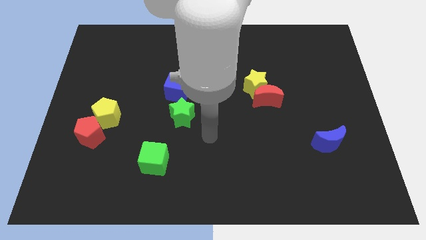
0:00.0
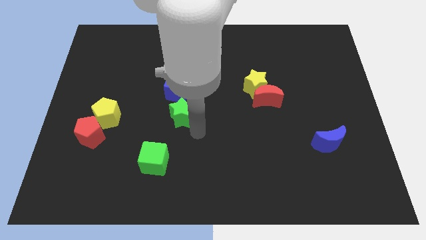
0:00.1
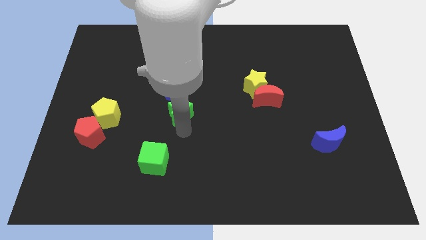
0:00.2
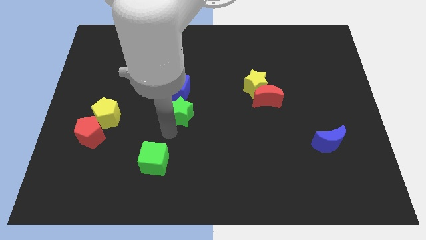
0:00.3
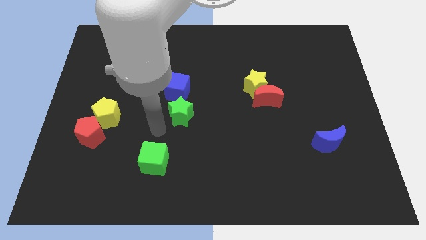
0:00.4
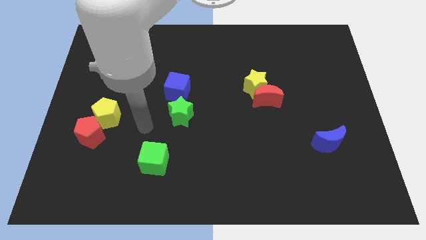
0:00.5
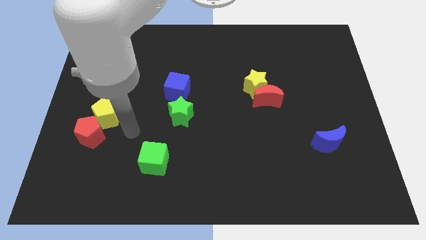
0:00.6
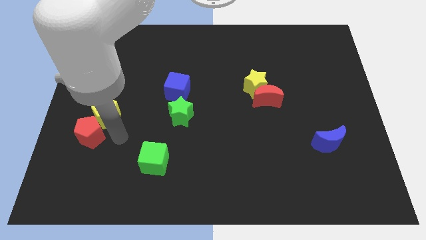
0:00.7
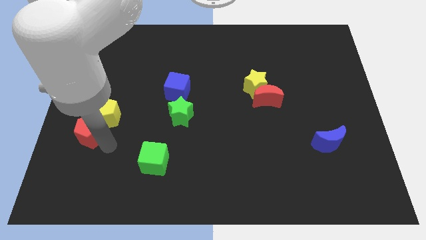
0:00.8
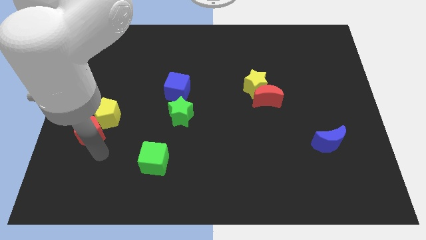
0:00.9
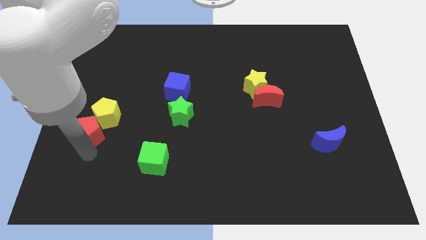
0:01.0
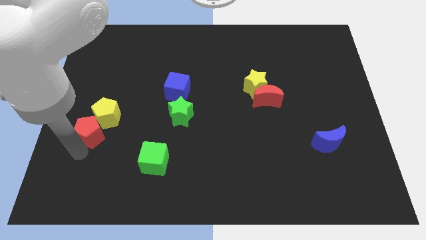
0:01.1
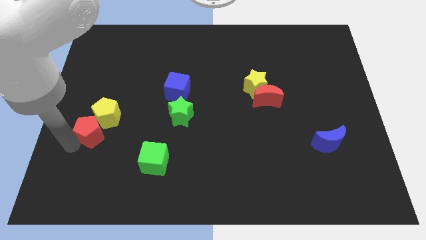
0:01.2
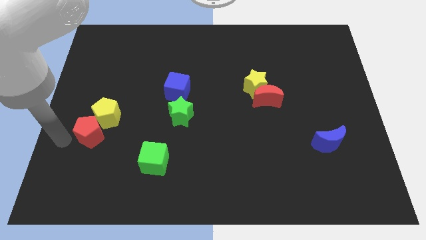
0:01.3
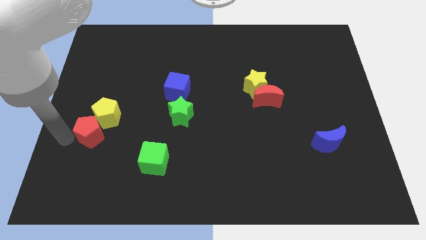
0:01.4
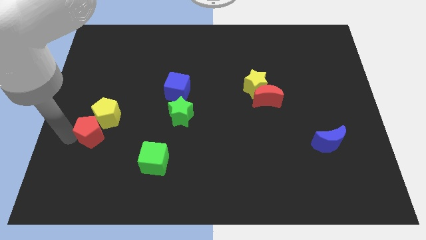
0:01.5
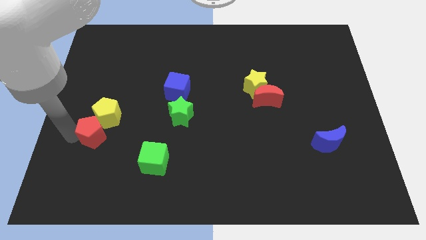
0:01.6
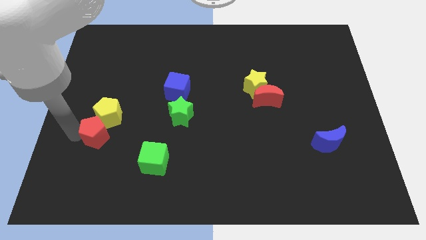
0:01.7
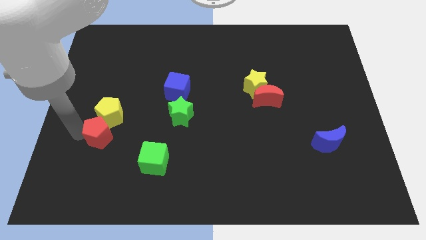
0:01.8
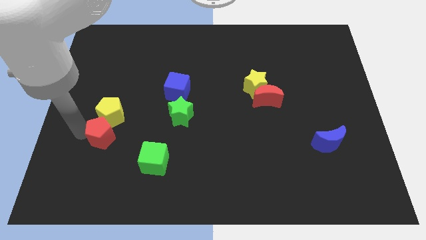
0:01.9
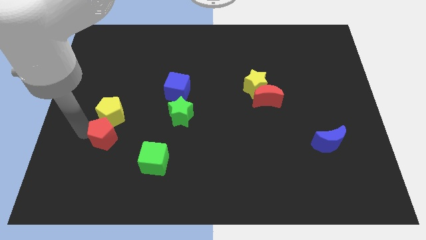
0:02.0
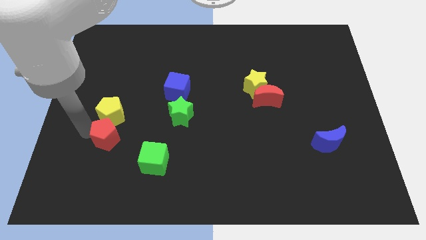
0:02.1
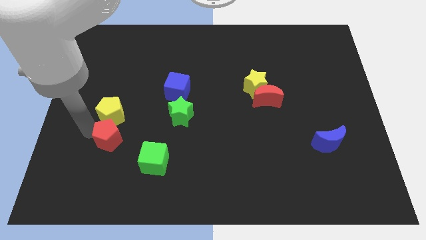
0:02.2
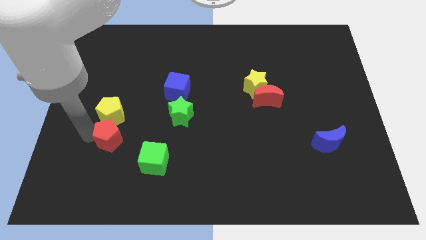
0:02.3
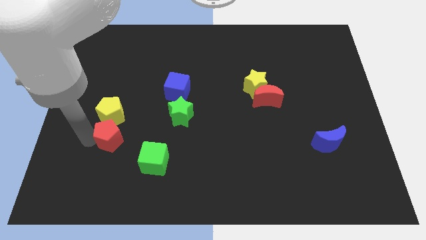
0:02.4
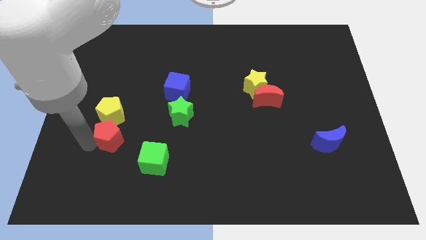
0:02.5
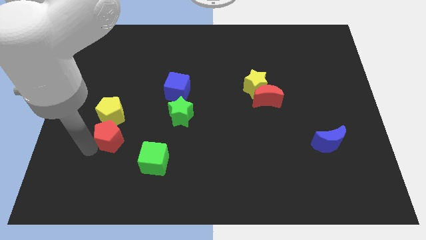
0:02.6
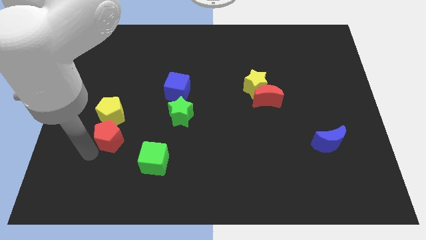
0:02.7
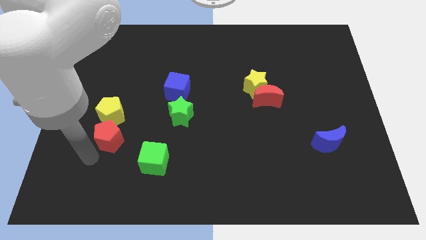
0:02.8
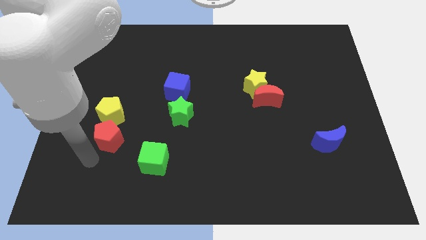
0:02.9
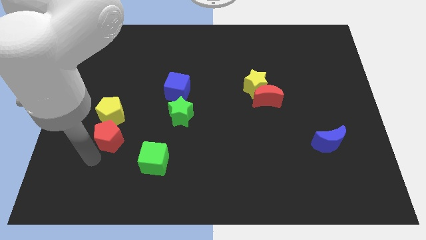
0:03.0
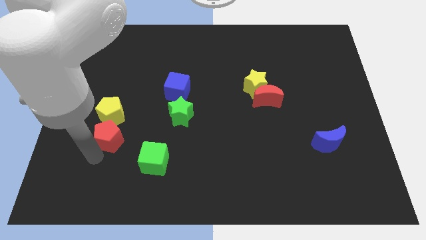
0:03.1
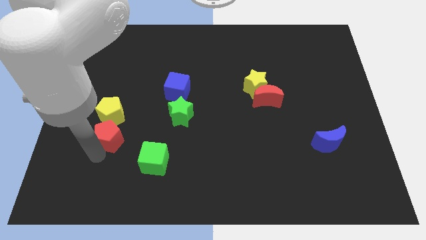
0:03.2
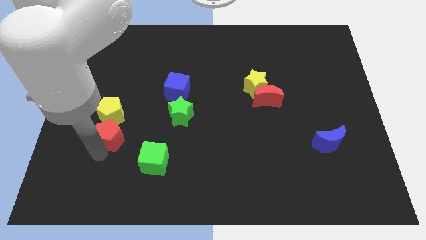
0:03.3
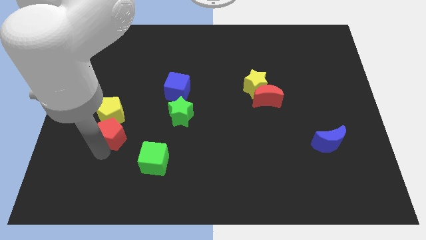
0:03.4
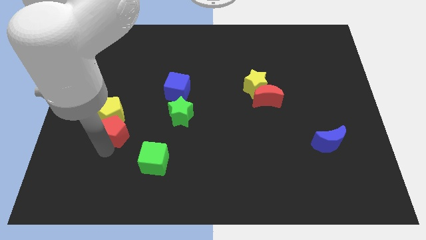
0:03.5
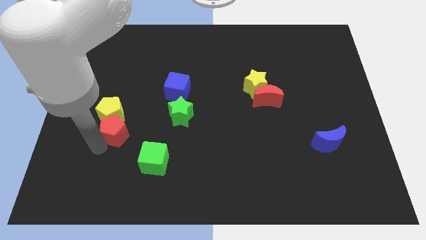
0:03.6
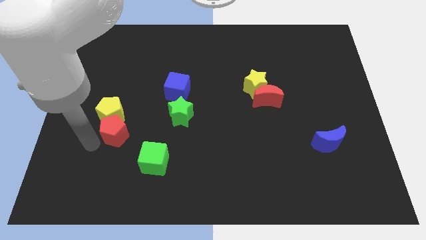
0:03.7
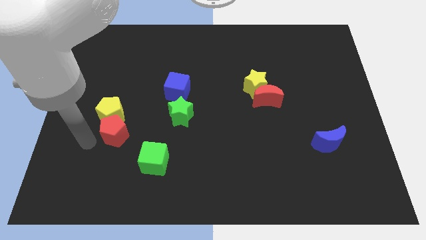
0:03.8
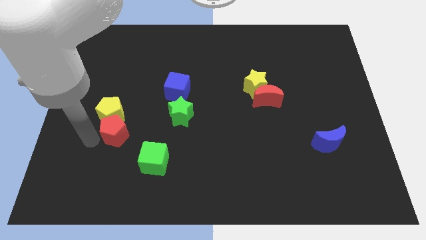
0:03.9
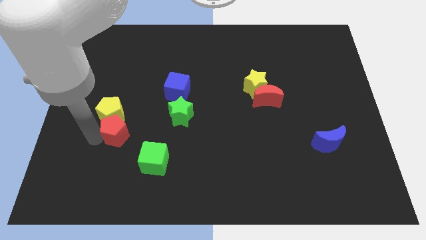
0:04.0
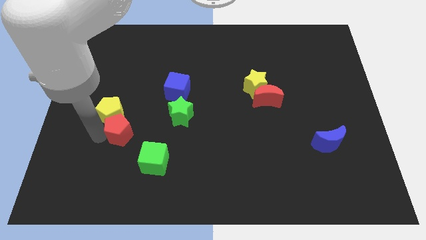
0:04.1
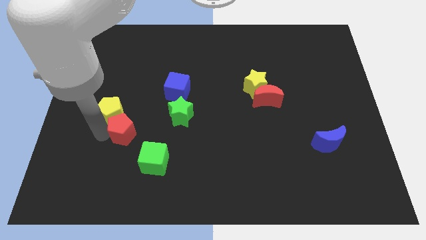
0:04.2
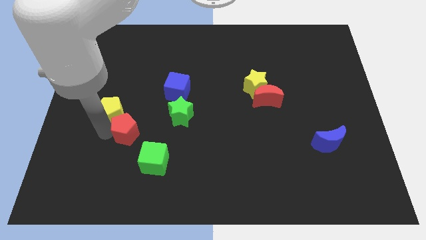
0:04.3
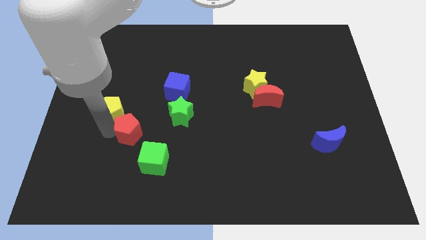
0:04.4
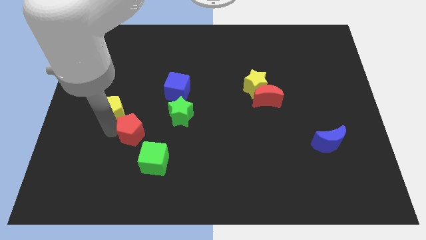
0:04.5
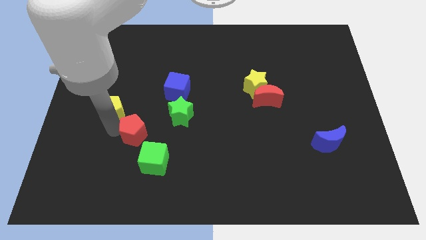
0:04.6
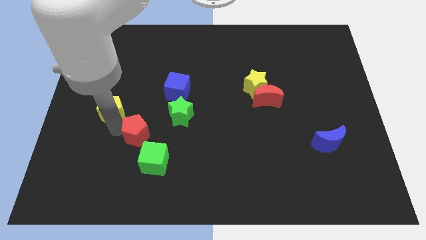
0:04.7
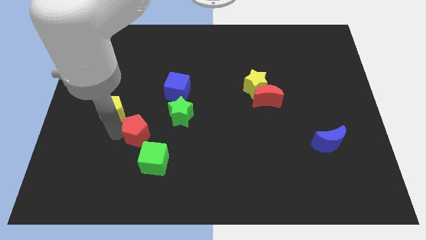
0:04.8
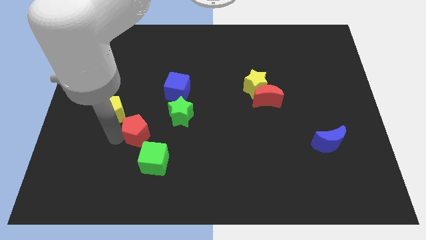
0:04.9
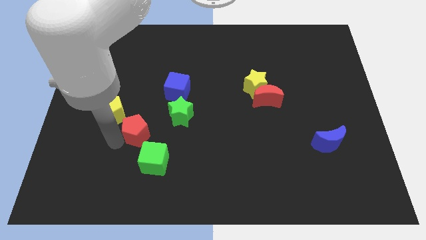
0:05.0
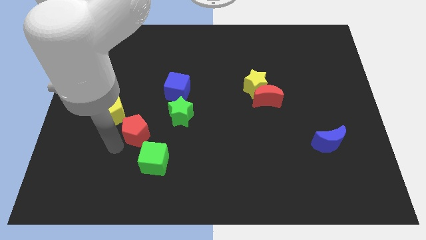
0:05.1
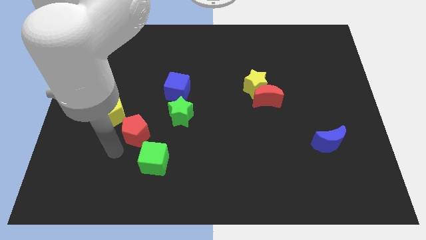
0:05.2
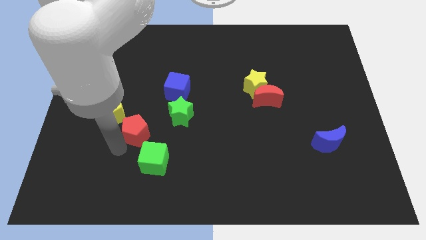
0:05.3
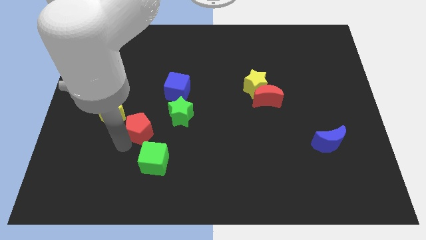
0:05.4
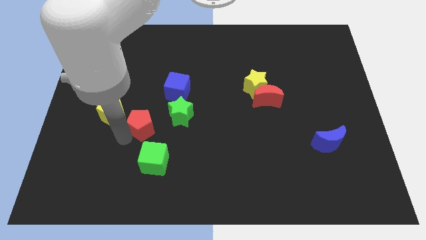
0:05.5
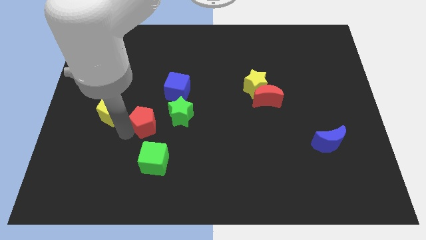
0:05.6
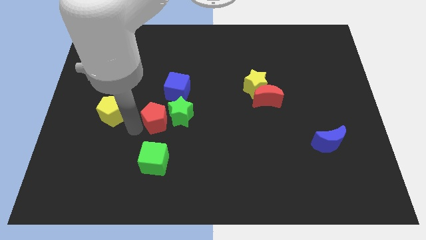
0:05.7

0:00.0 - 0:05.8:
slide the red pentagon next to the green star

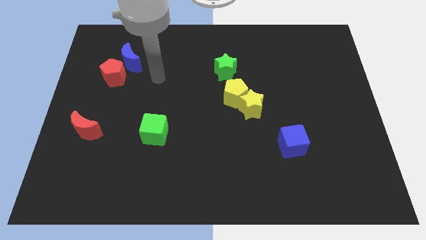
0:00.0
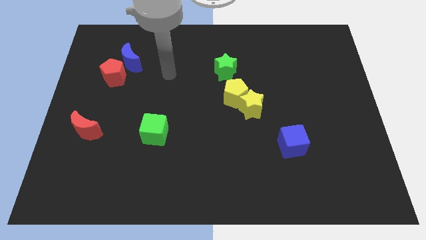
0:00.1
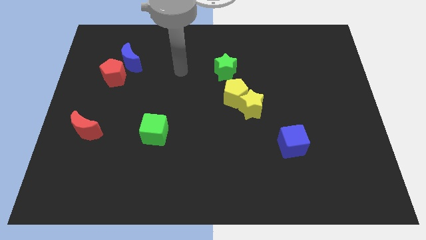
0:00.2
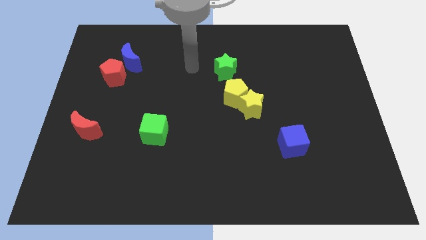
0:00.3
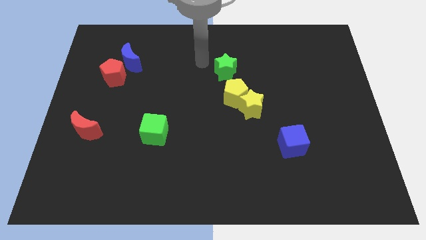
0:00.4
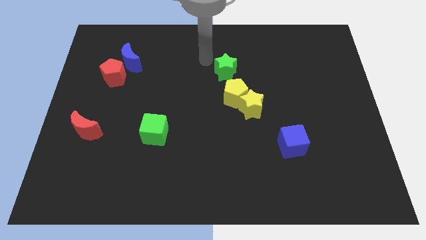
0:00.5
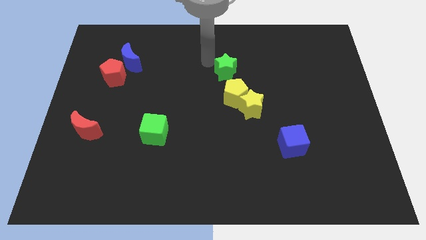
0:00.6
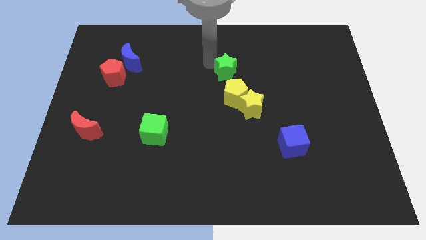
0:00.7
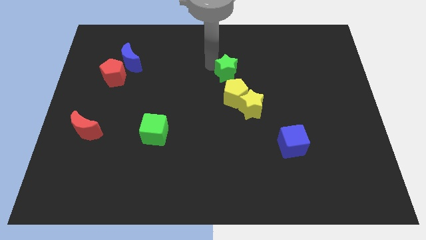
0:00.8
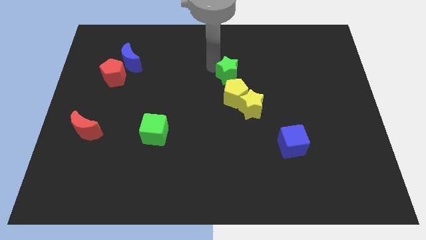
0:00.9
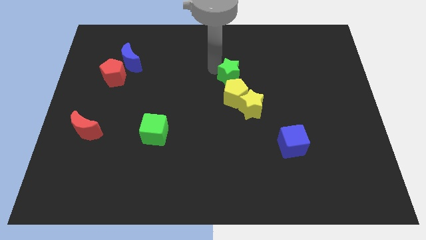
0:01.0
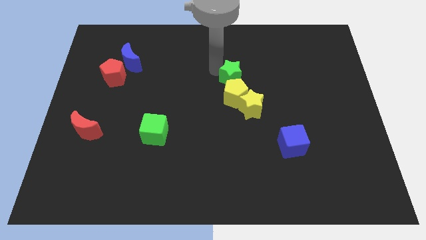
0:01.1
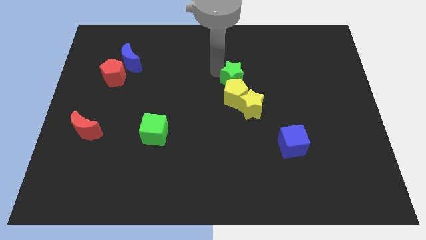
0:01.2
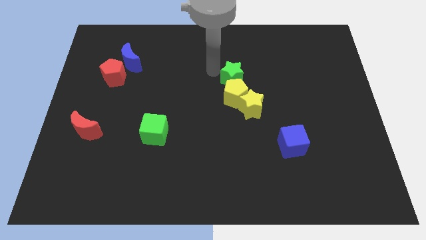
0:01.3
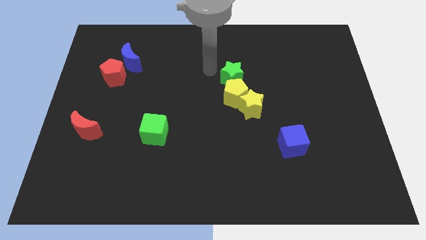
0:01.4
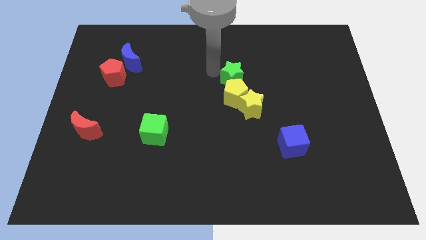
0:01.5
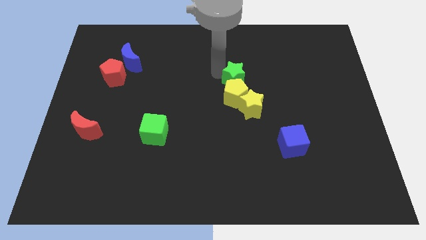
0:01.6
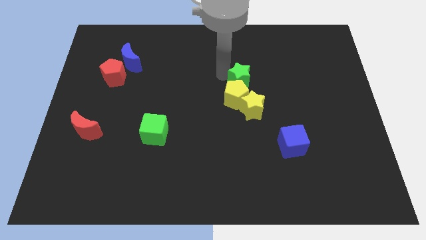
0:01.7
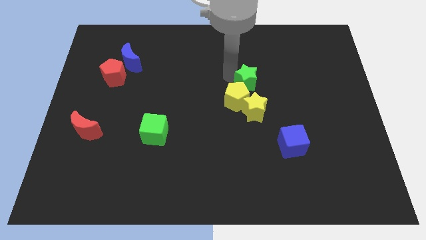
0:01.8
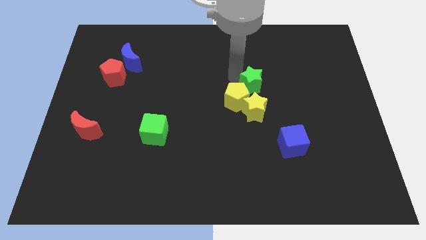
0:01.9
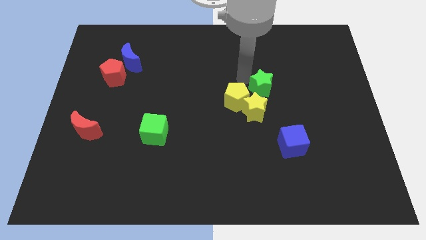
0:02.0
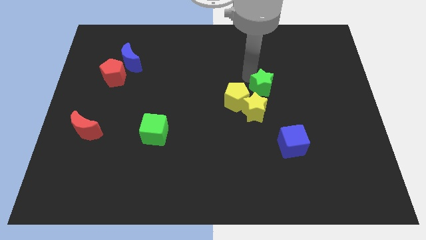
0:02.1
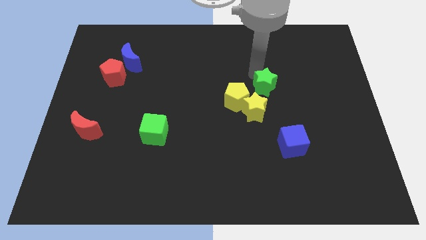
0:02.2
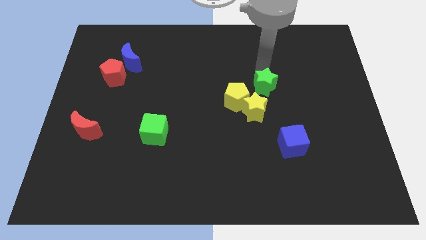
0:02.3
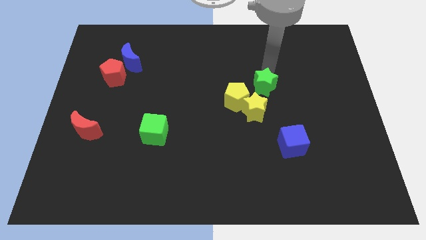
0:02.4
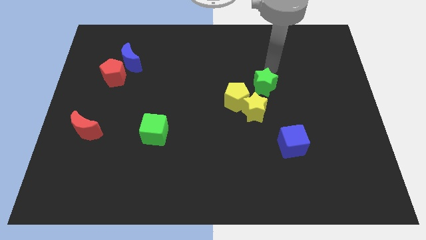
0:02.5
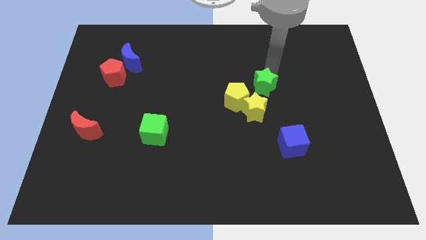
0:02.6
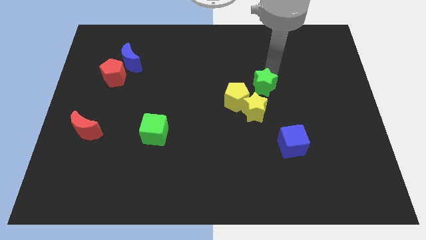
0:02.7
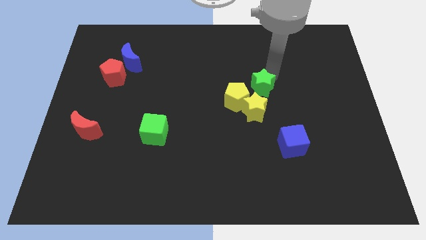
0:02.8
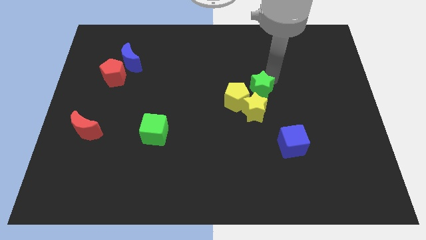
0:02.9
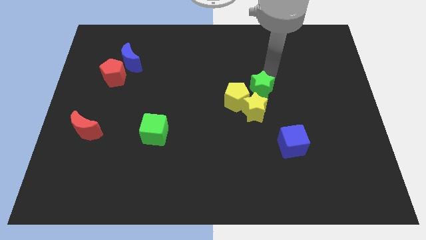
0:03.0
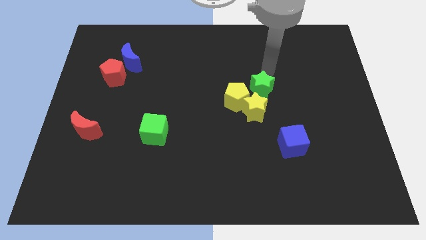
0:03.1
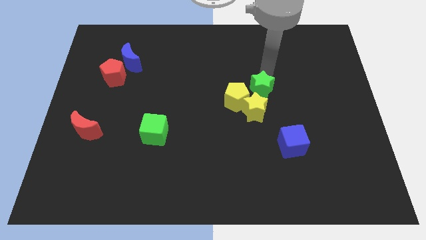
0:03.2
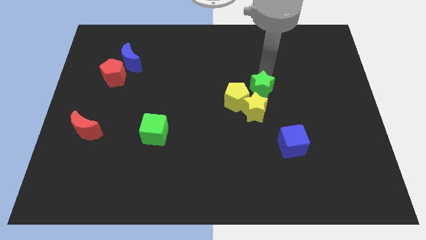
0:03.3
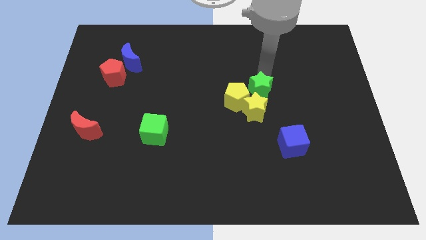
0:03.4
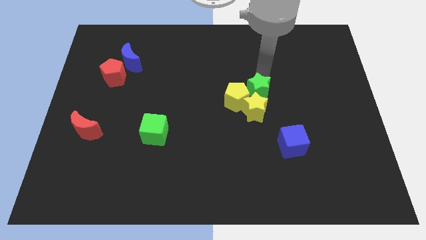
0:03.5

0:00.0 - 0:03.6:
push the green star towards the yellow star
